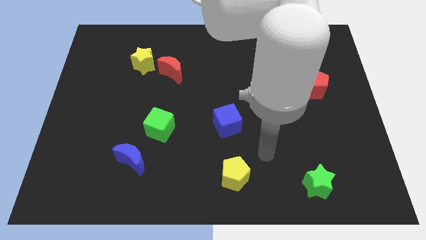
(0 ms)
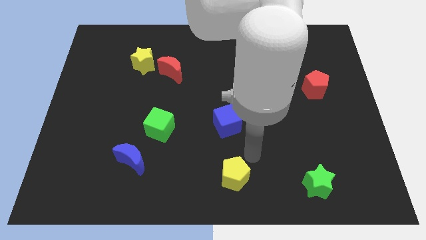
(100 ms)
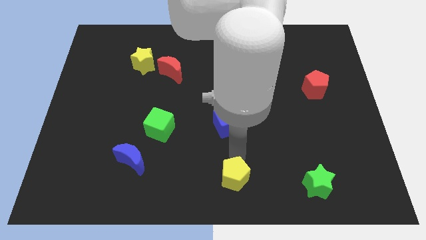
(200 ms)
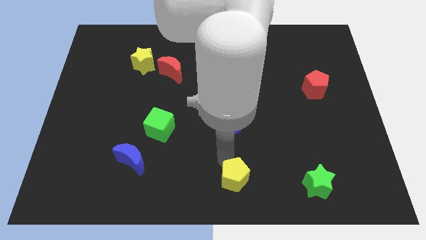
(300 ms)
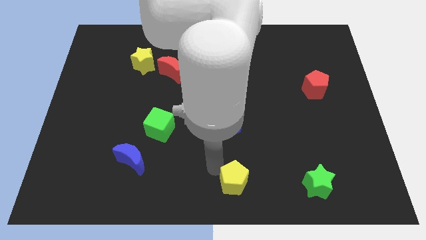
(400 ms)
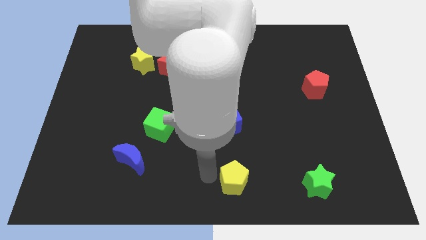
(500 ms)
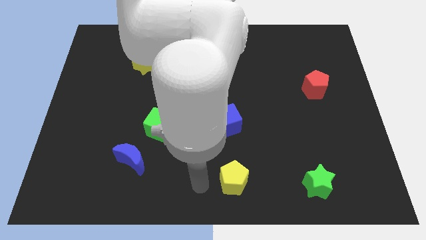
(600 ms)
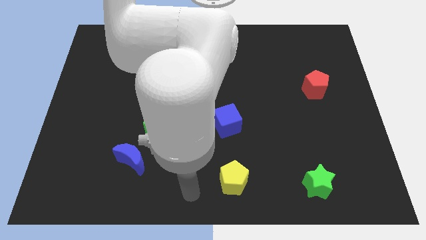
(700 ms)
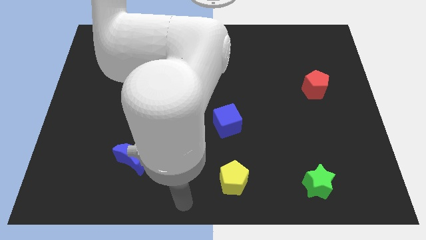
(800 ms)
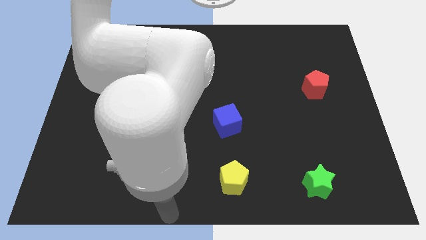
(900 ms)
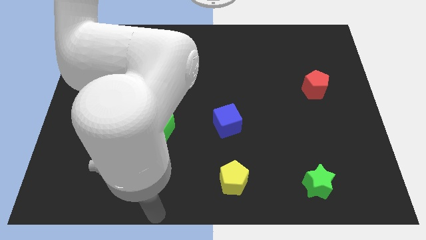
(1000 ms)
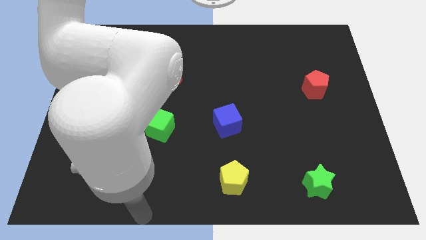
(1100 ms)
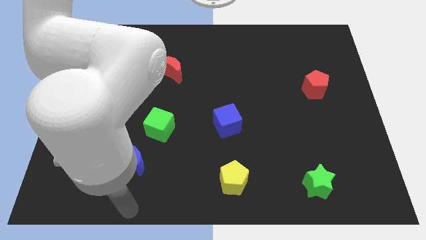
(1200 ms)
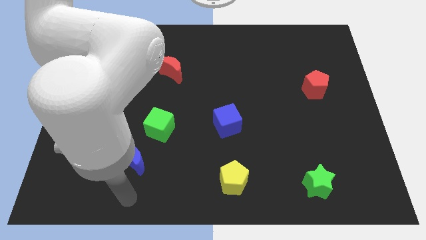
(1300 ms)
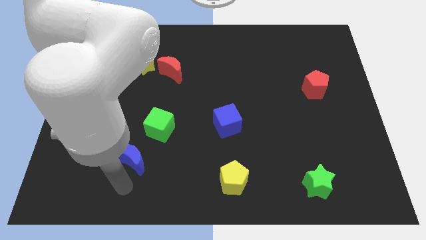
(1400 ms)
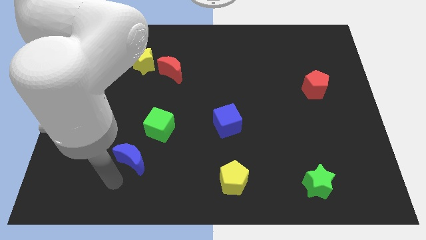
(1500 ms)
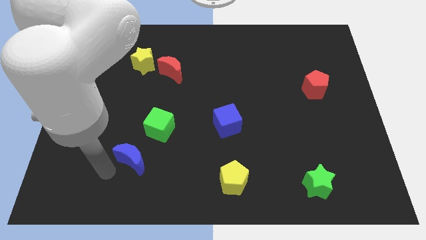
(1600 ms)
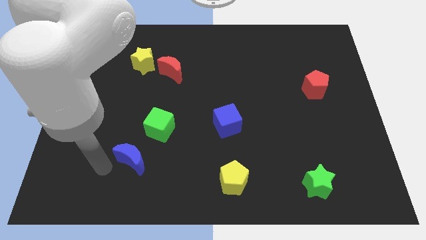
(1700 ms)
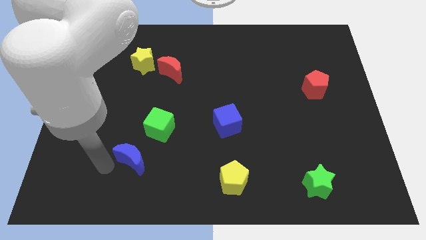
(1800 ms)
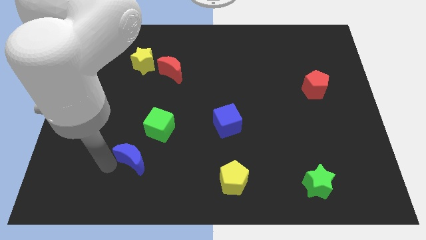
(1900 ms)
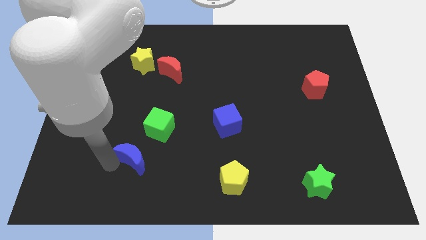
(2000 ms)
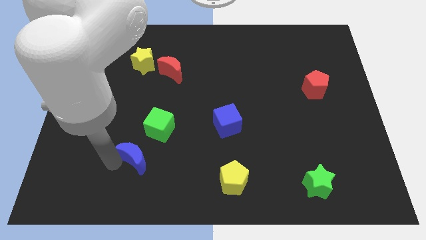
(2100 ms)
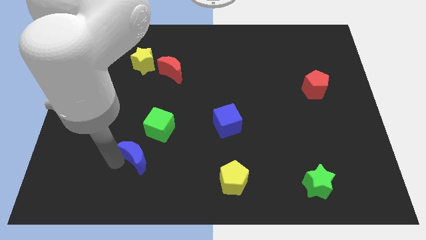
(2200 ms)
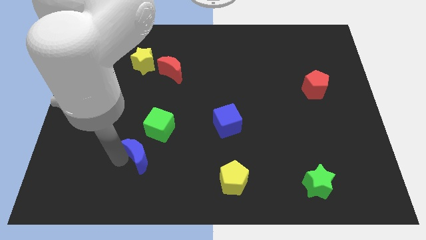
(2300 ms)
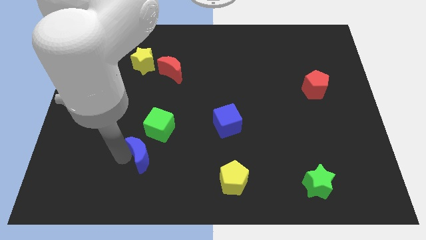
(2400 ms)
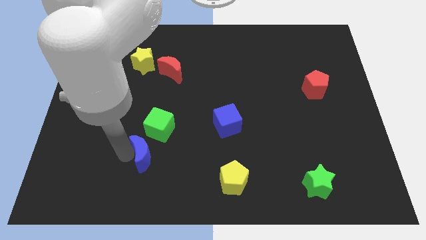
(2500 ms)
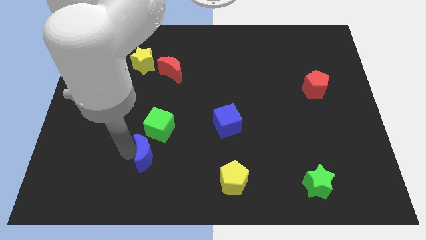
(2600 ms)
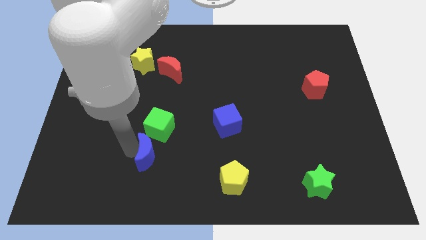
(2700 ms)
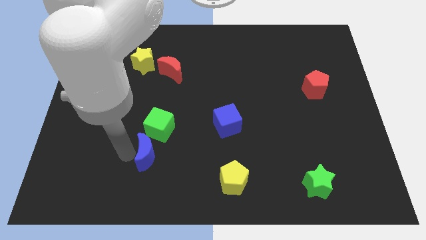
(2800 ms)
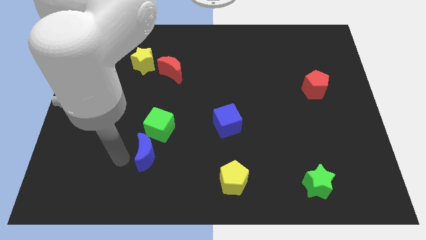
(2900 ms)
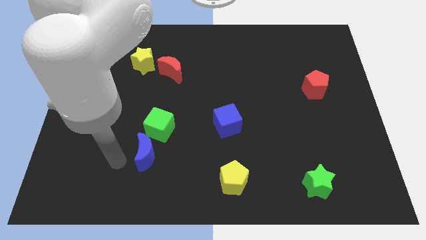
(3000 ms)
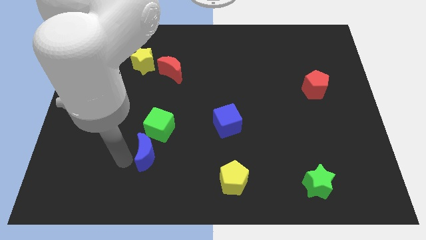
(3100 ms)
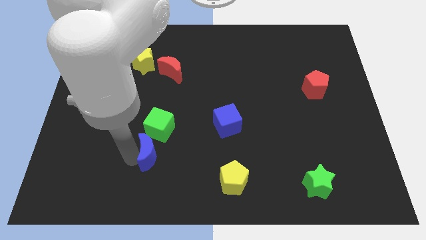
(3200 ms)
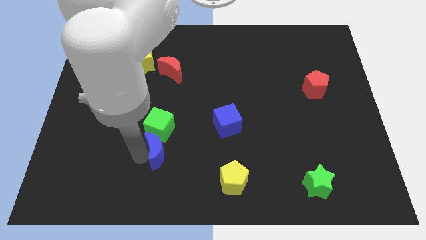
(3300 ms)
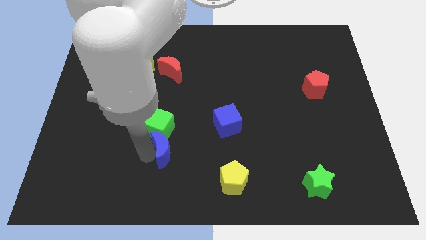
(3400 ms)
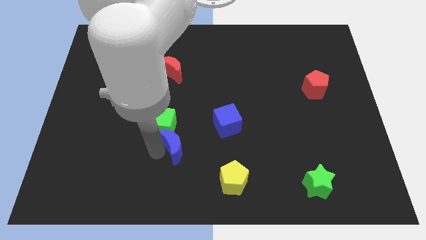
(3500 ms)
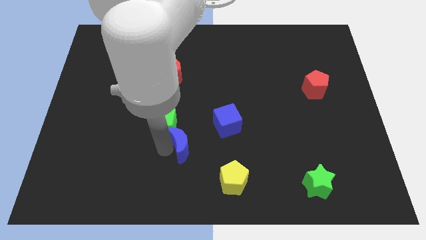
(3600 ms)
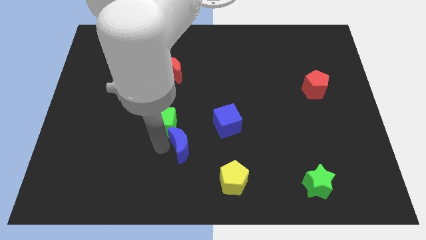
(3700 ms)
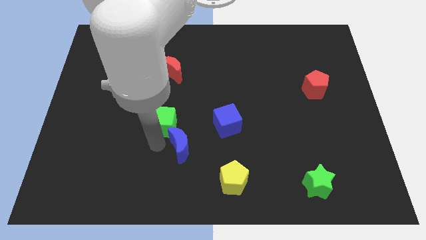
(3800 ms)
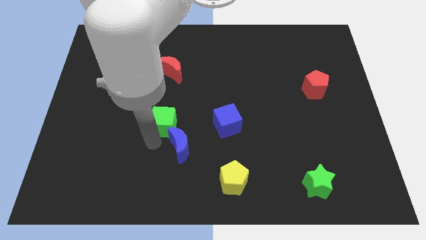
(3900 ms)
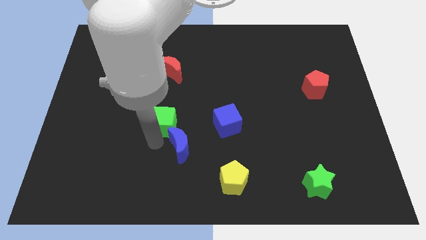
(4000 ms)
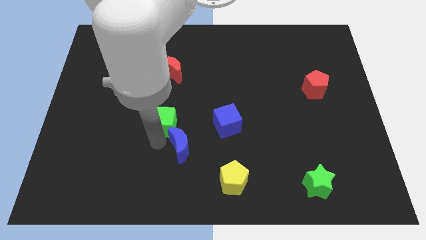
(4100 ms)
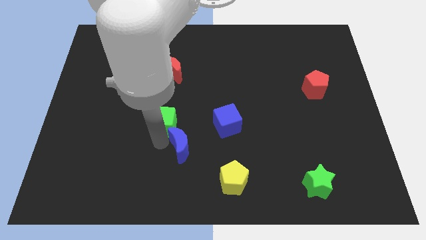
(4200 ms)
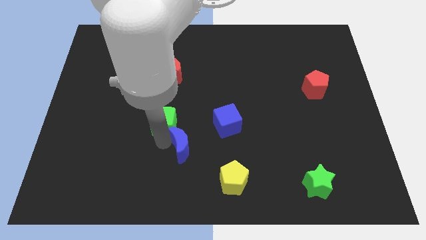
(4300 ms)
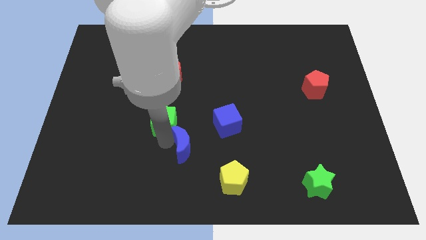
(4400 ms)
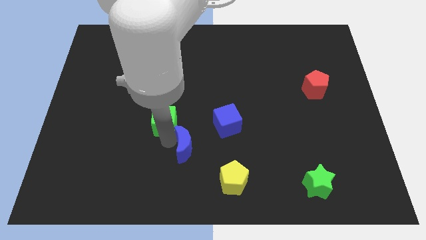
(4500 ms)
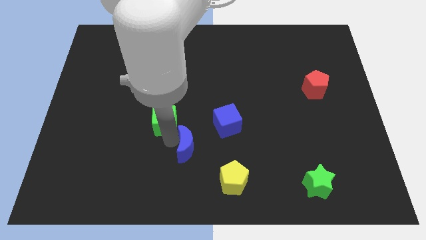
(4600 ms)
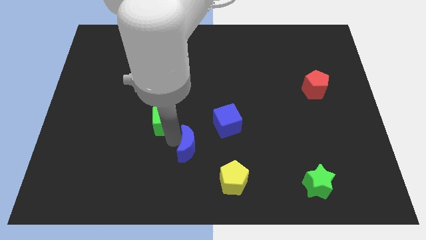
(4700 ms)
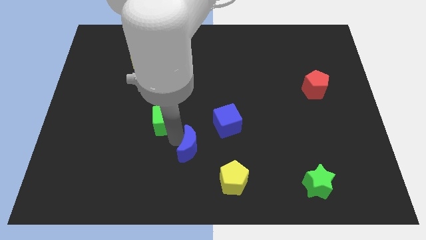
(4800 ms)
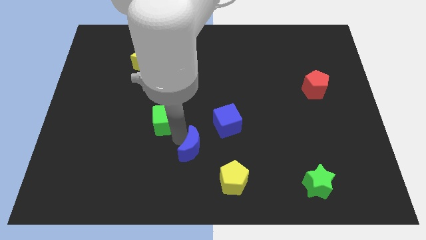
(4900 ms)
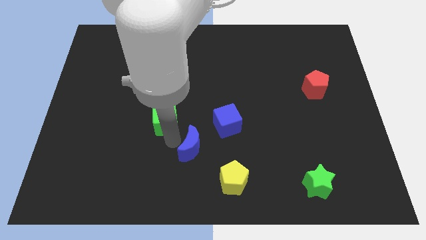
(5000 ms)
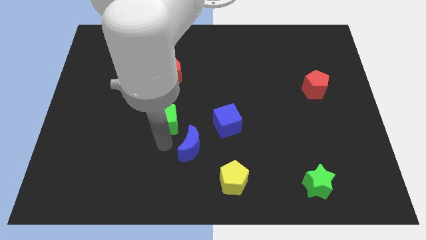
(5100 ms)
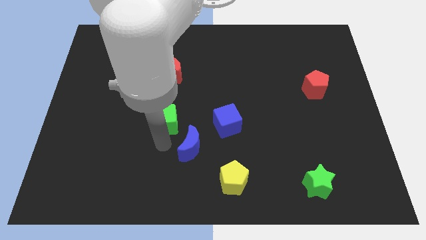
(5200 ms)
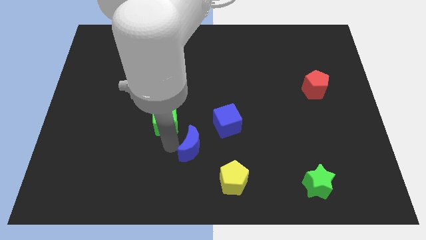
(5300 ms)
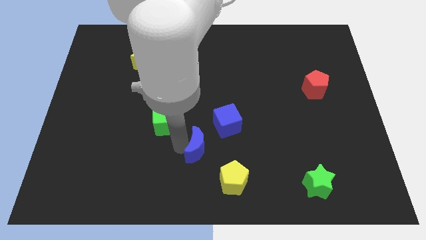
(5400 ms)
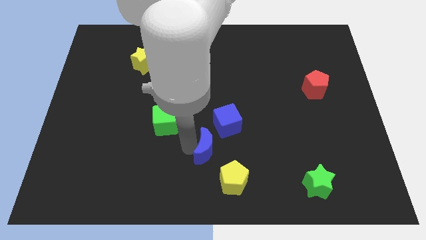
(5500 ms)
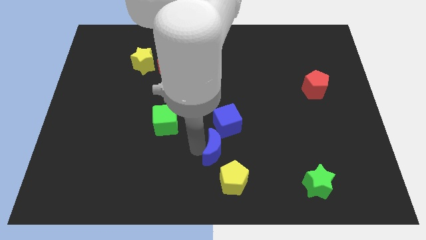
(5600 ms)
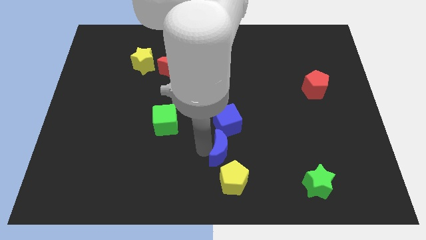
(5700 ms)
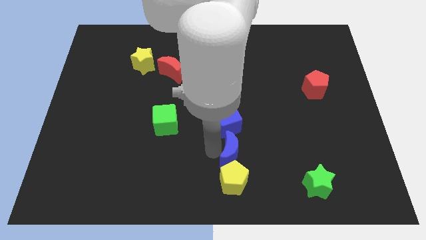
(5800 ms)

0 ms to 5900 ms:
slide the blue moon right

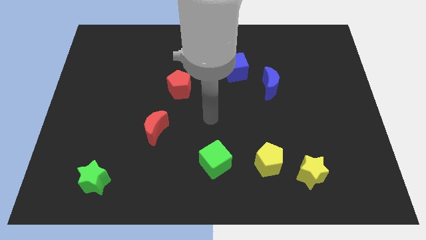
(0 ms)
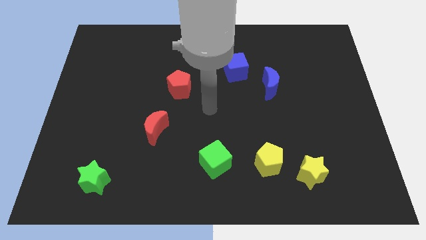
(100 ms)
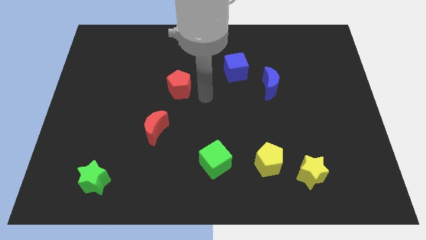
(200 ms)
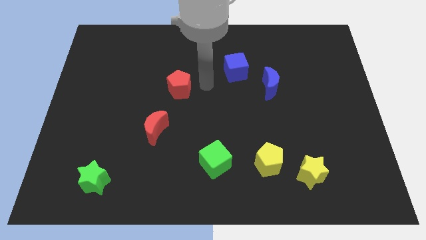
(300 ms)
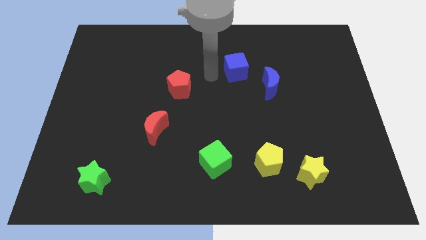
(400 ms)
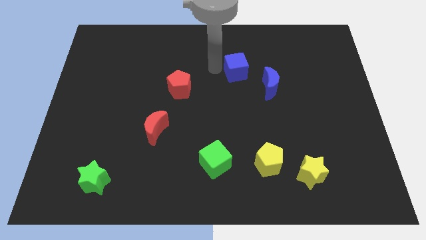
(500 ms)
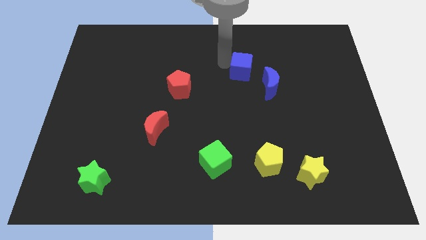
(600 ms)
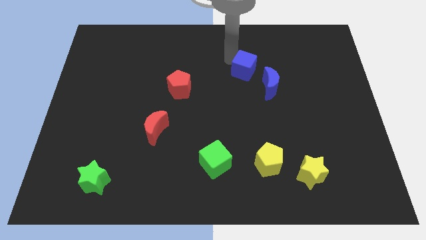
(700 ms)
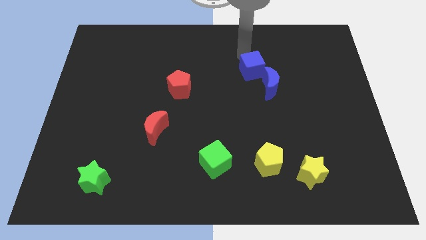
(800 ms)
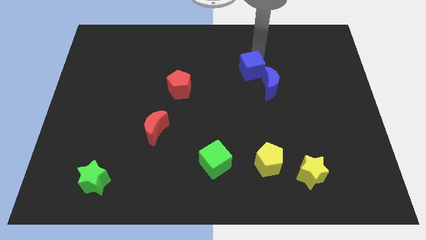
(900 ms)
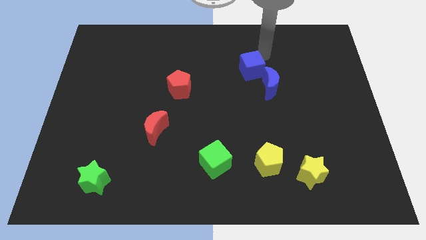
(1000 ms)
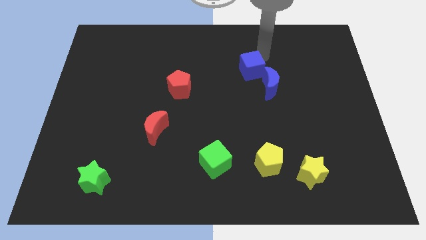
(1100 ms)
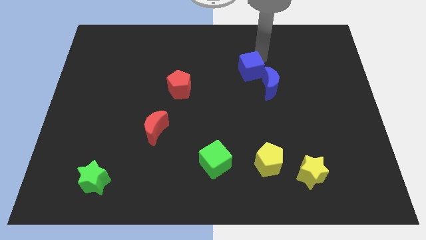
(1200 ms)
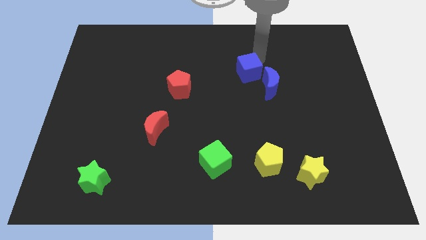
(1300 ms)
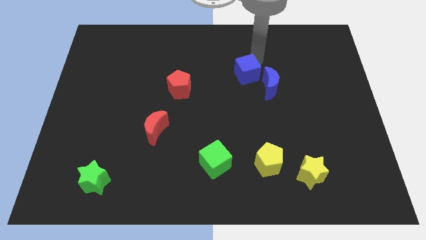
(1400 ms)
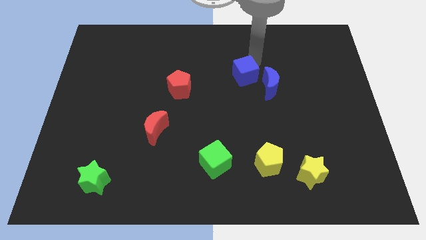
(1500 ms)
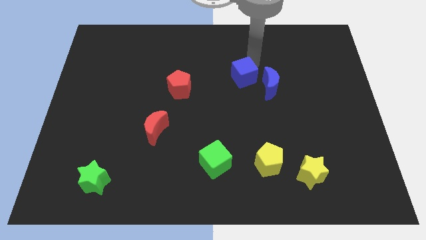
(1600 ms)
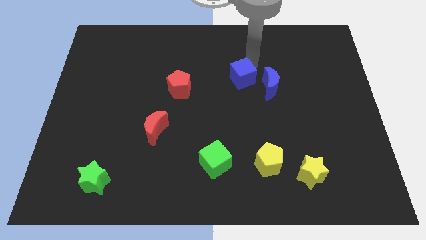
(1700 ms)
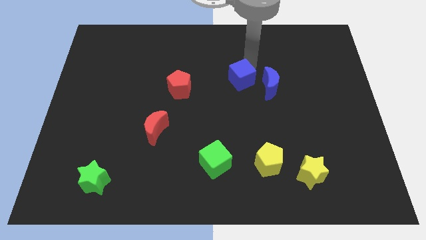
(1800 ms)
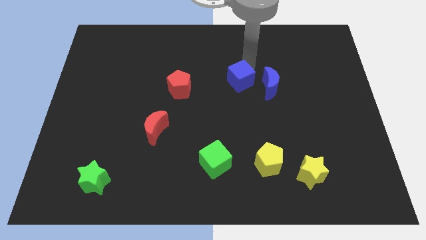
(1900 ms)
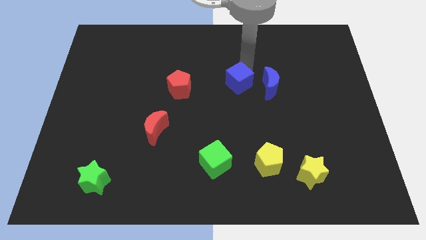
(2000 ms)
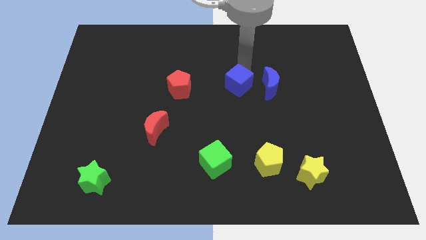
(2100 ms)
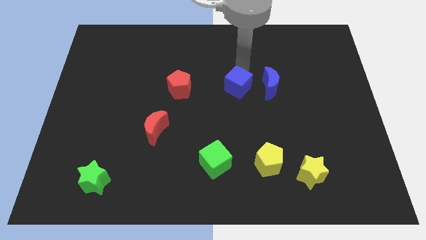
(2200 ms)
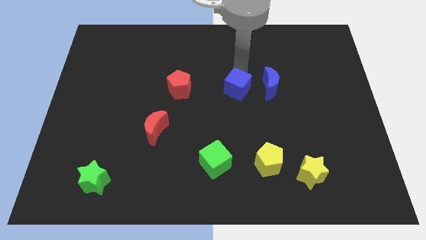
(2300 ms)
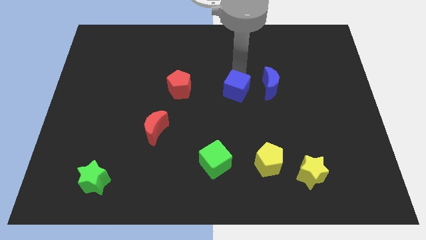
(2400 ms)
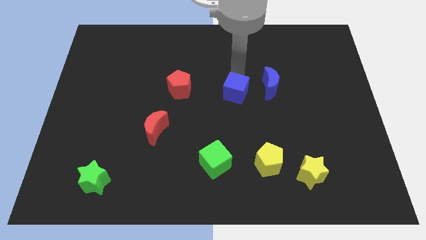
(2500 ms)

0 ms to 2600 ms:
slide the blue cube down slightly
